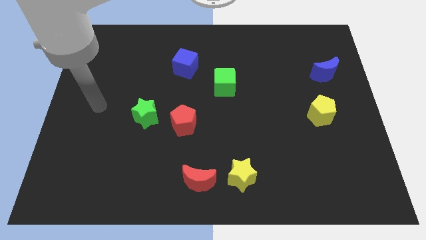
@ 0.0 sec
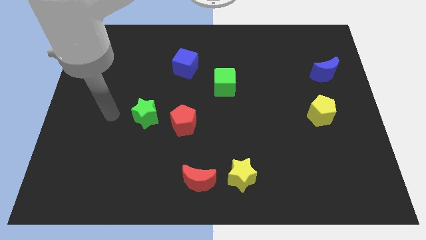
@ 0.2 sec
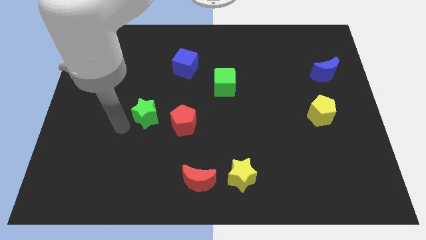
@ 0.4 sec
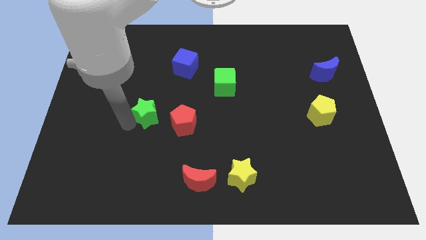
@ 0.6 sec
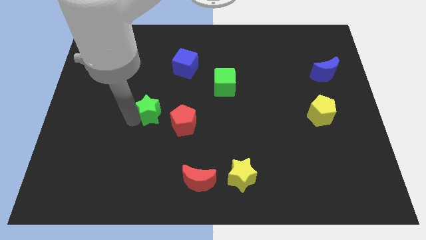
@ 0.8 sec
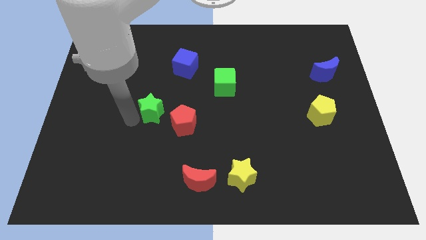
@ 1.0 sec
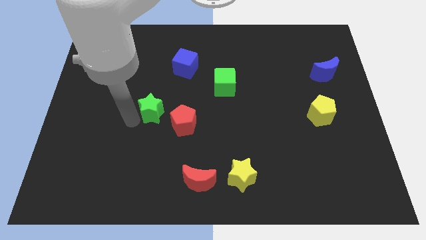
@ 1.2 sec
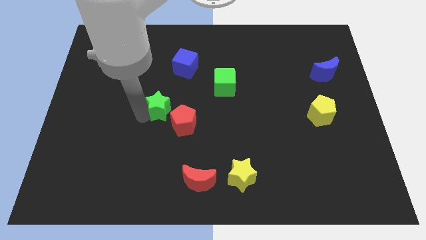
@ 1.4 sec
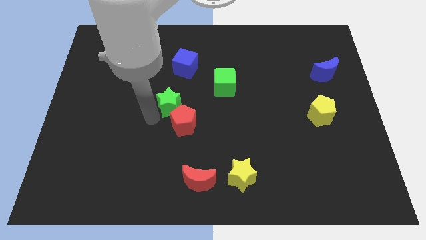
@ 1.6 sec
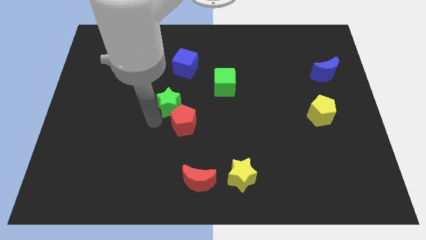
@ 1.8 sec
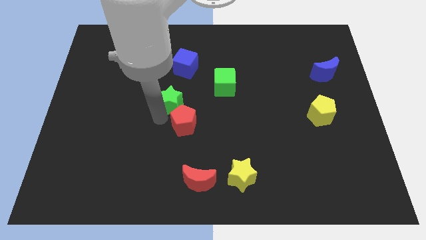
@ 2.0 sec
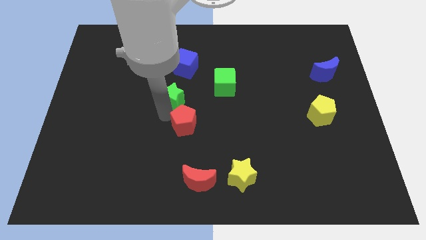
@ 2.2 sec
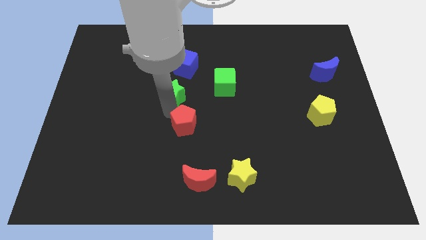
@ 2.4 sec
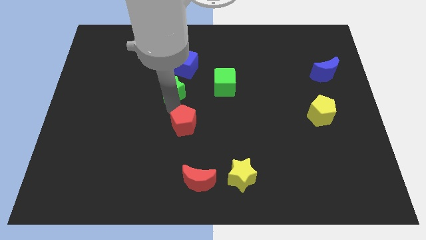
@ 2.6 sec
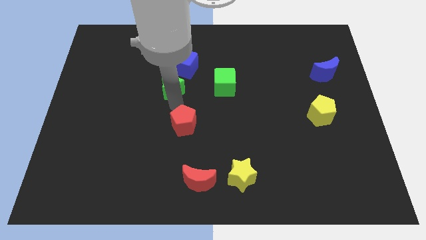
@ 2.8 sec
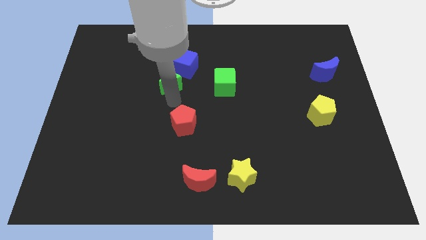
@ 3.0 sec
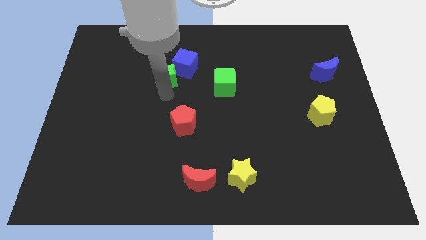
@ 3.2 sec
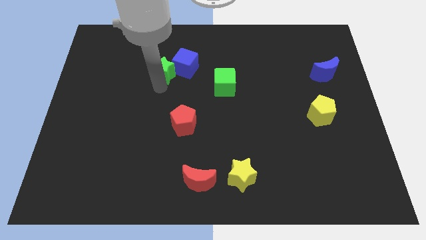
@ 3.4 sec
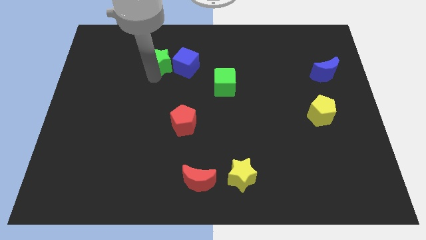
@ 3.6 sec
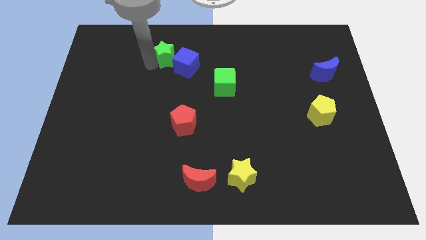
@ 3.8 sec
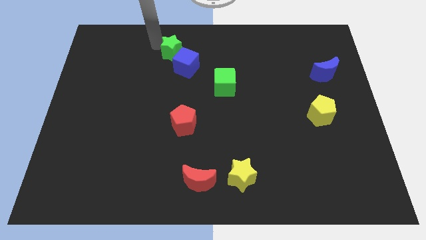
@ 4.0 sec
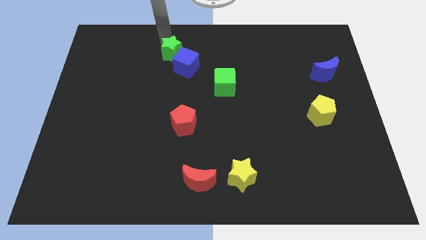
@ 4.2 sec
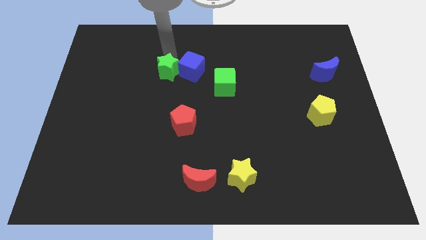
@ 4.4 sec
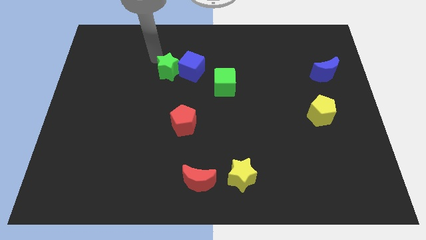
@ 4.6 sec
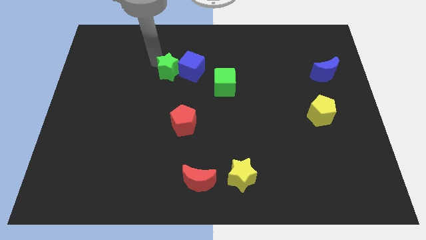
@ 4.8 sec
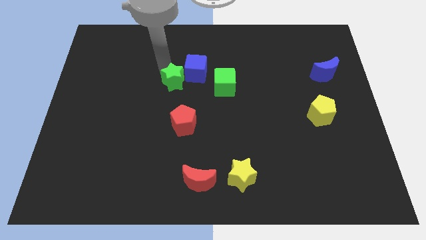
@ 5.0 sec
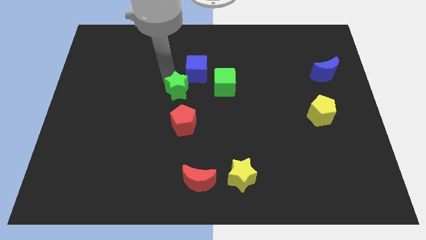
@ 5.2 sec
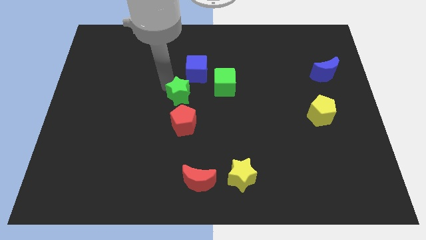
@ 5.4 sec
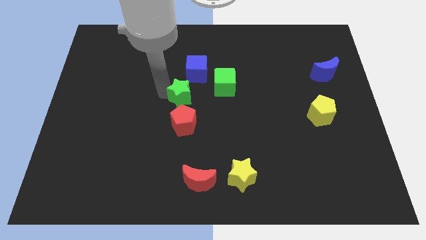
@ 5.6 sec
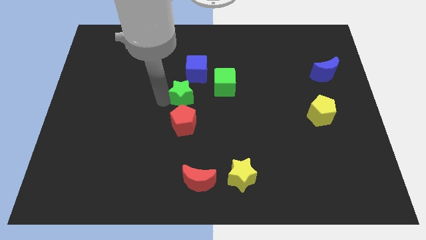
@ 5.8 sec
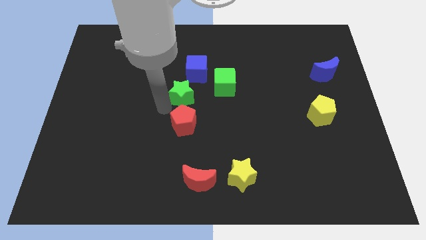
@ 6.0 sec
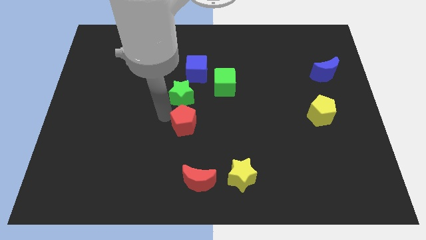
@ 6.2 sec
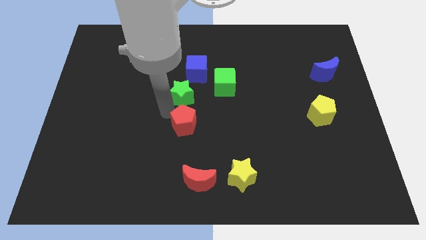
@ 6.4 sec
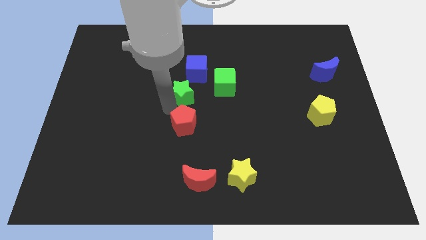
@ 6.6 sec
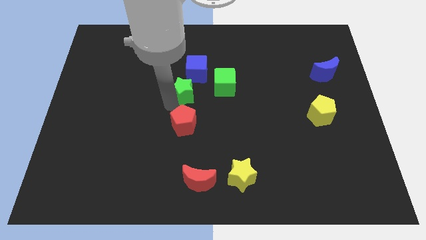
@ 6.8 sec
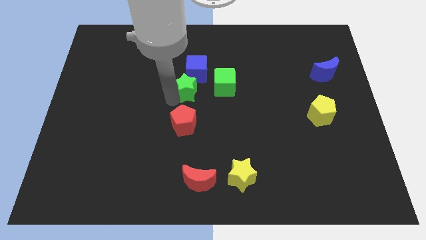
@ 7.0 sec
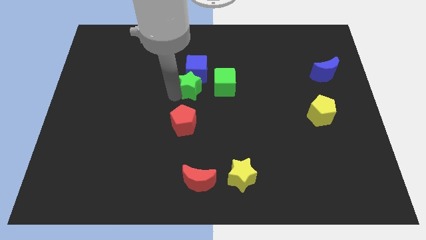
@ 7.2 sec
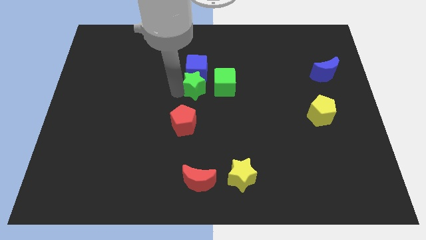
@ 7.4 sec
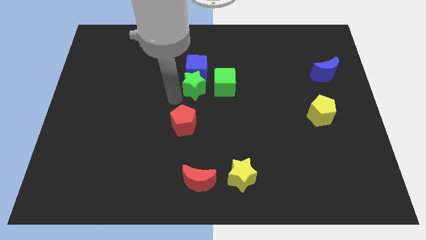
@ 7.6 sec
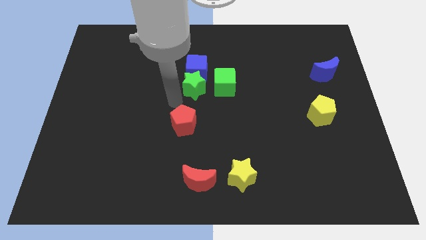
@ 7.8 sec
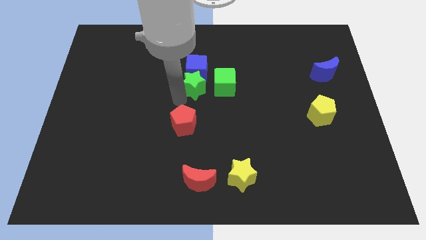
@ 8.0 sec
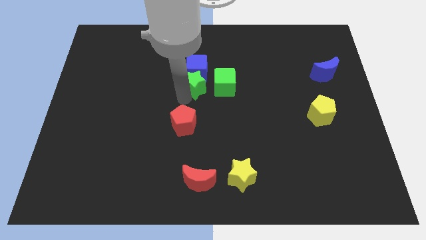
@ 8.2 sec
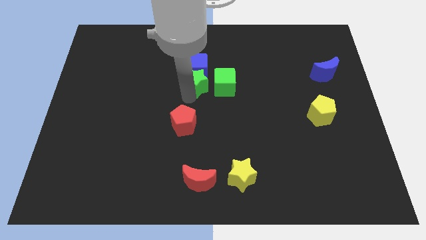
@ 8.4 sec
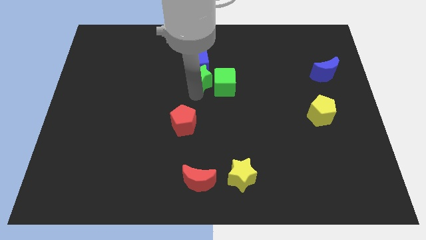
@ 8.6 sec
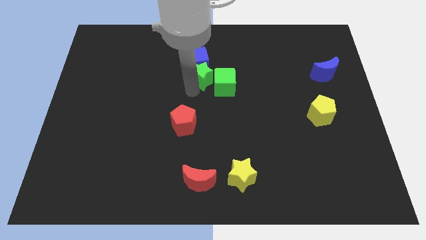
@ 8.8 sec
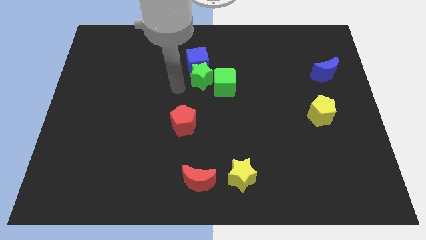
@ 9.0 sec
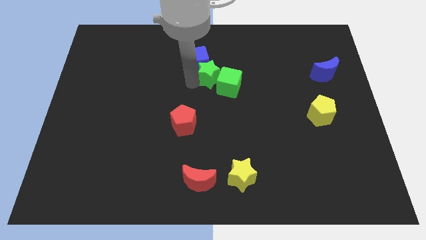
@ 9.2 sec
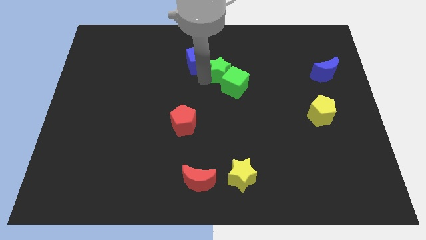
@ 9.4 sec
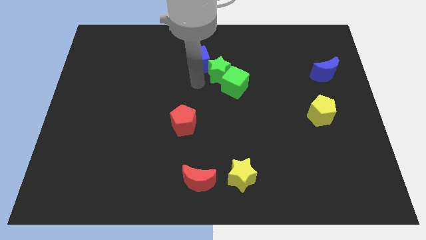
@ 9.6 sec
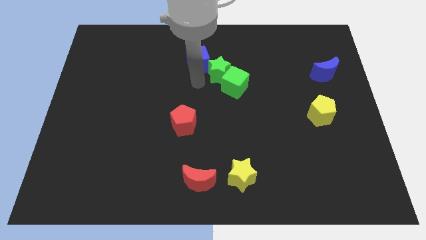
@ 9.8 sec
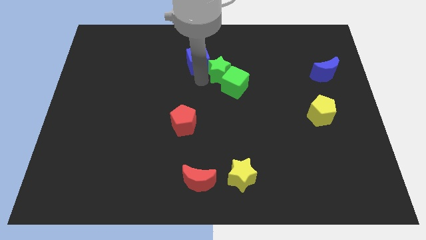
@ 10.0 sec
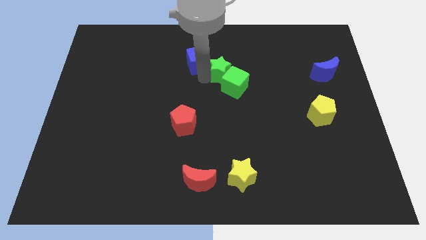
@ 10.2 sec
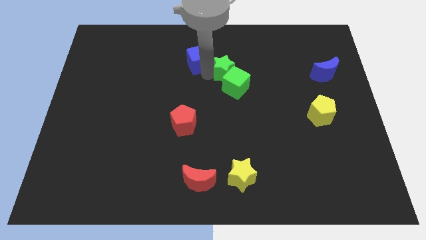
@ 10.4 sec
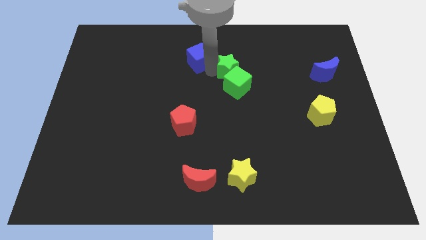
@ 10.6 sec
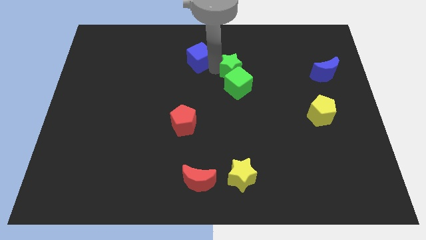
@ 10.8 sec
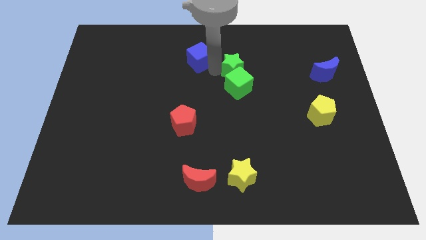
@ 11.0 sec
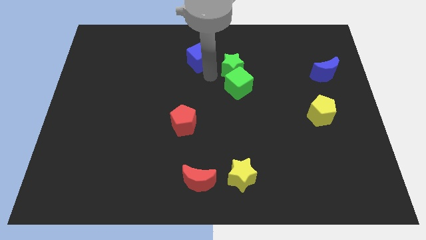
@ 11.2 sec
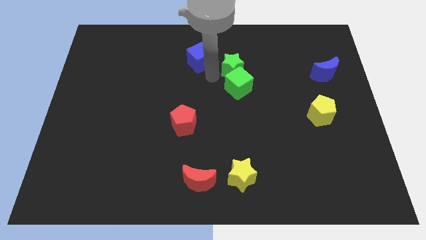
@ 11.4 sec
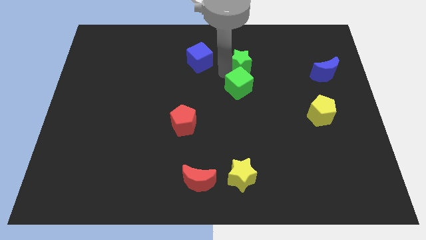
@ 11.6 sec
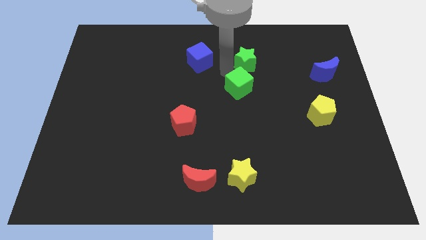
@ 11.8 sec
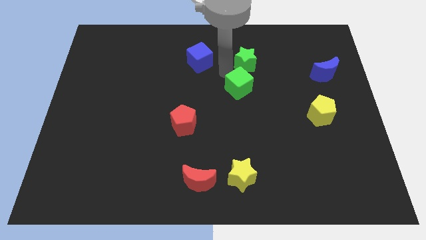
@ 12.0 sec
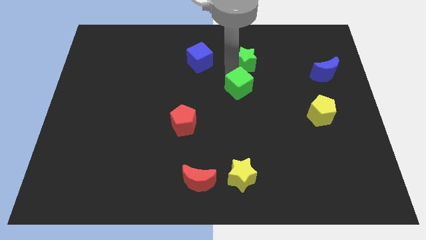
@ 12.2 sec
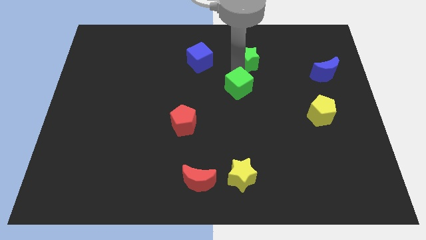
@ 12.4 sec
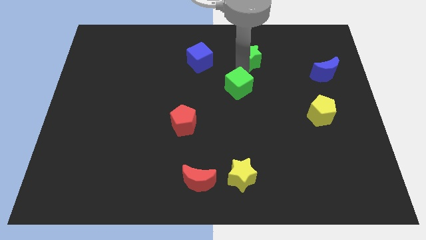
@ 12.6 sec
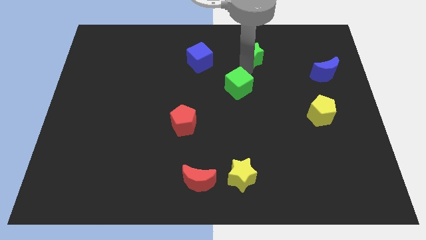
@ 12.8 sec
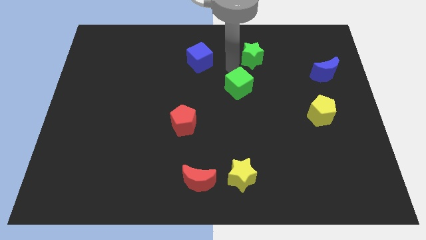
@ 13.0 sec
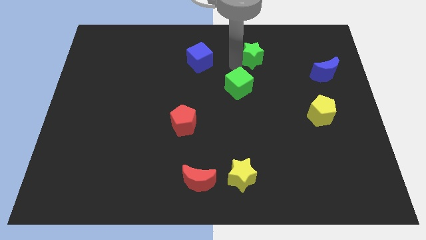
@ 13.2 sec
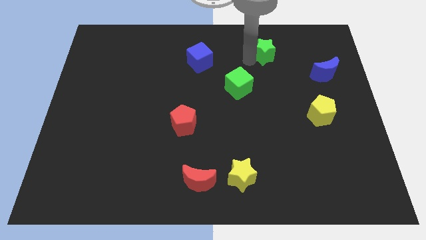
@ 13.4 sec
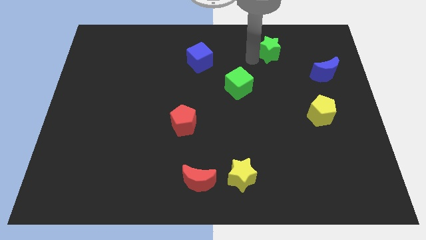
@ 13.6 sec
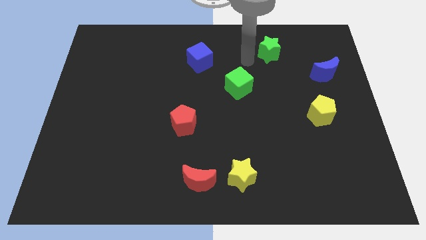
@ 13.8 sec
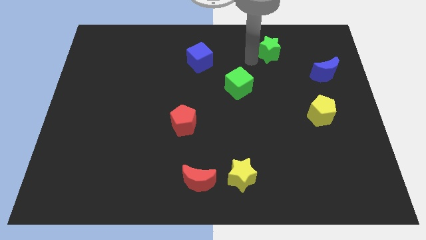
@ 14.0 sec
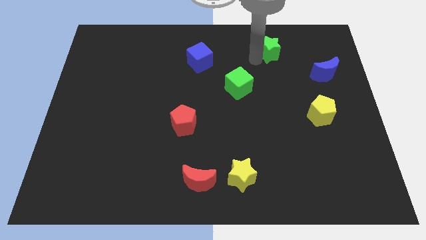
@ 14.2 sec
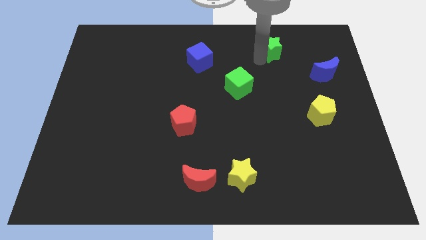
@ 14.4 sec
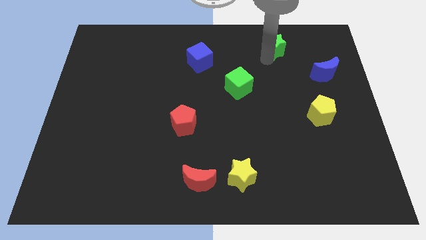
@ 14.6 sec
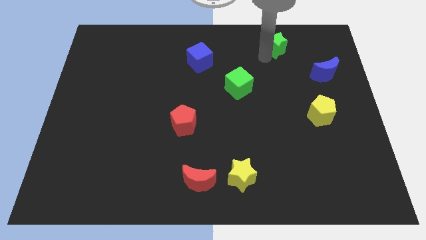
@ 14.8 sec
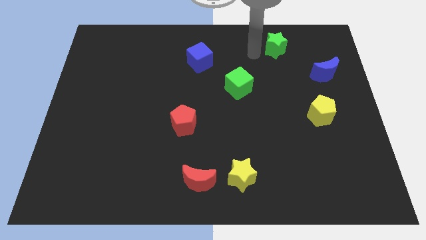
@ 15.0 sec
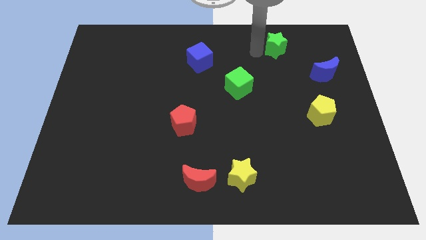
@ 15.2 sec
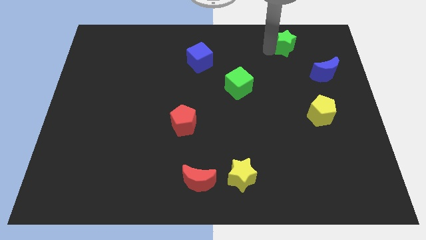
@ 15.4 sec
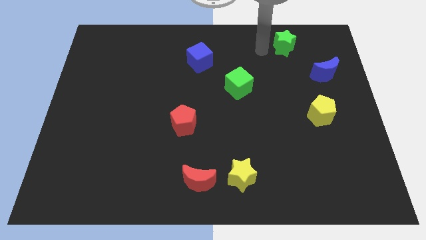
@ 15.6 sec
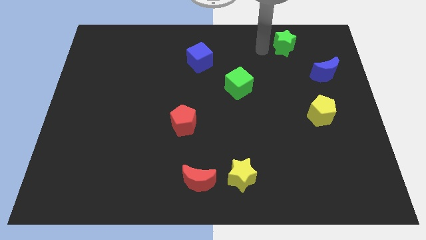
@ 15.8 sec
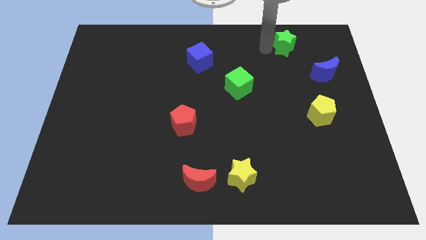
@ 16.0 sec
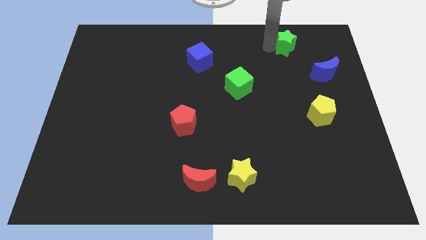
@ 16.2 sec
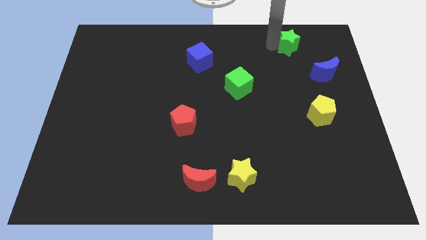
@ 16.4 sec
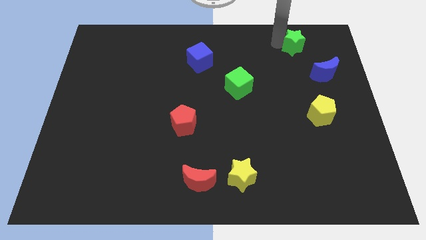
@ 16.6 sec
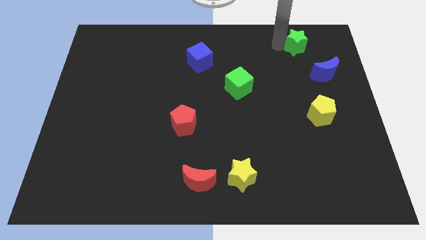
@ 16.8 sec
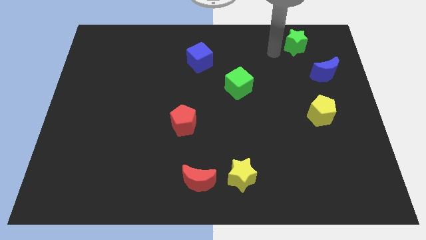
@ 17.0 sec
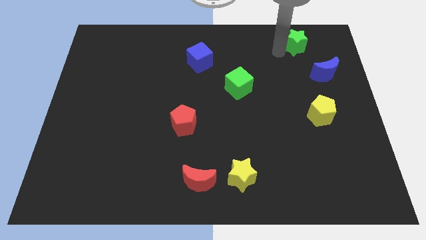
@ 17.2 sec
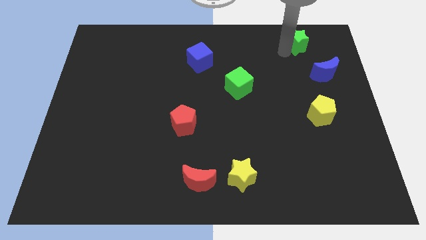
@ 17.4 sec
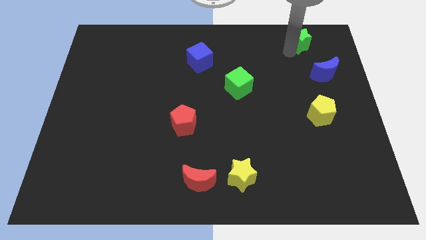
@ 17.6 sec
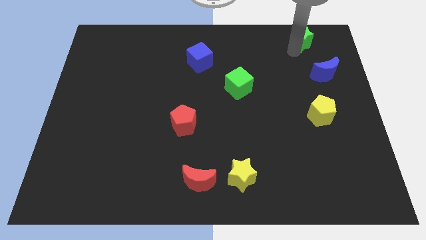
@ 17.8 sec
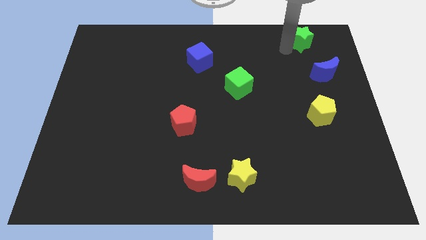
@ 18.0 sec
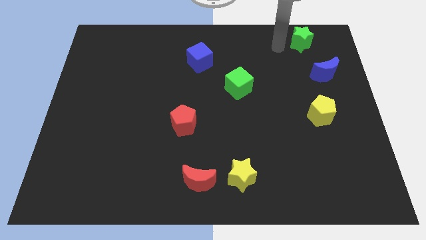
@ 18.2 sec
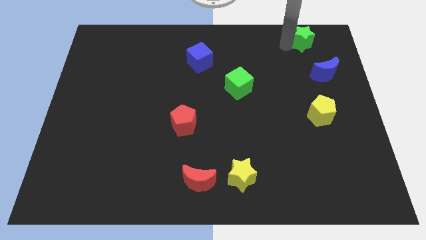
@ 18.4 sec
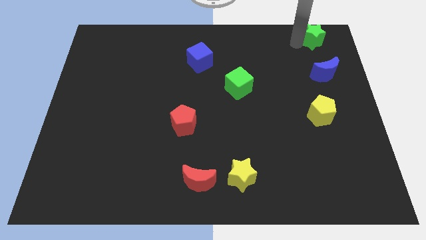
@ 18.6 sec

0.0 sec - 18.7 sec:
slide the green star to the top right
